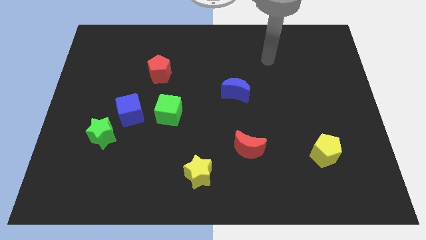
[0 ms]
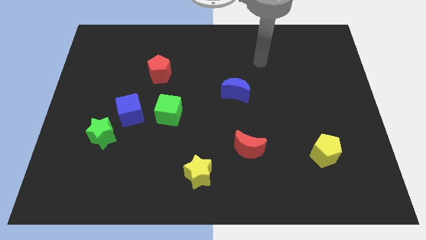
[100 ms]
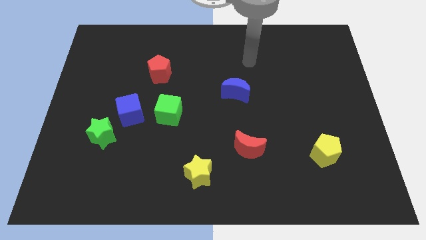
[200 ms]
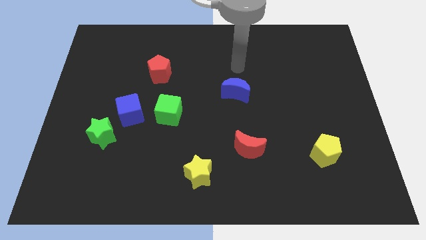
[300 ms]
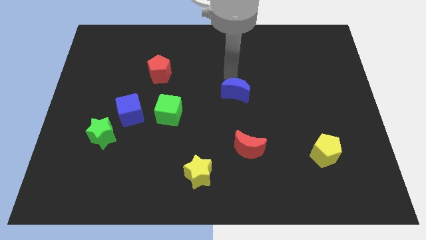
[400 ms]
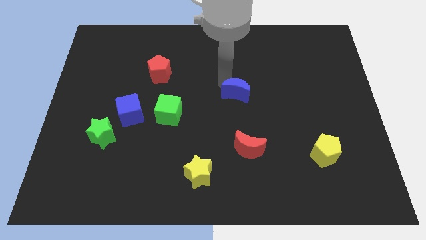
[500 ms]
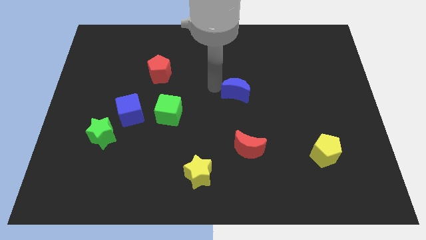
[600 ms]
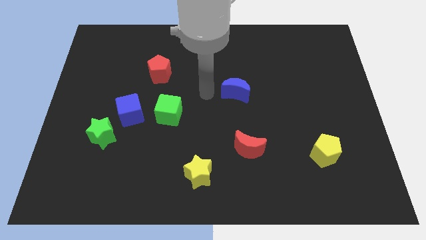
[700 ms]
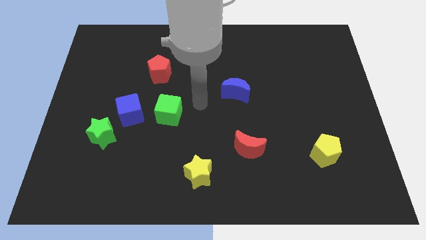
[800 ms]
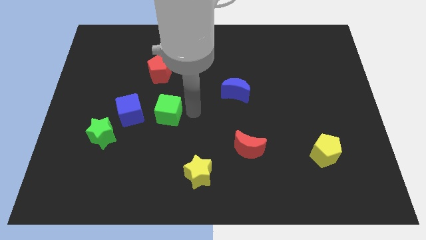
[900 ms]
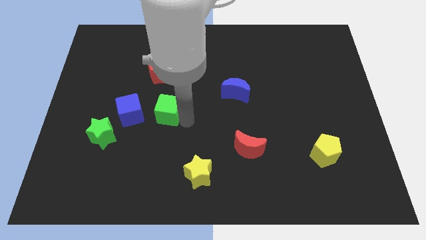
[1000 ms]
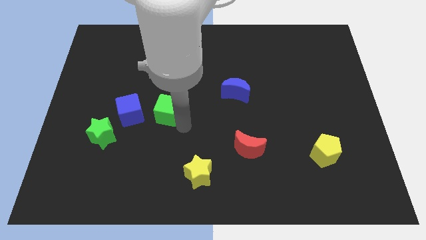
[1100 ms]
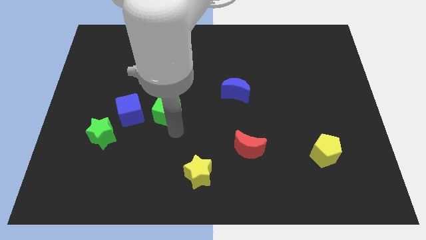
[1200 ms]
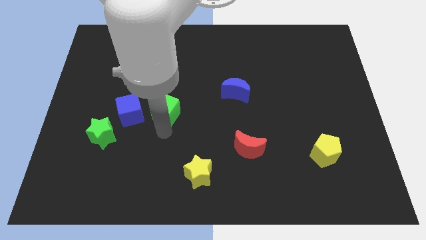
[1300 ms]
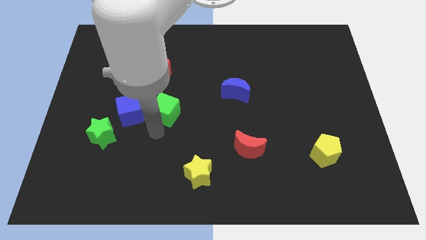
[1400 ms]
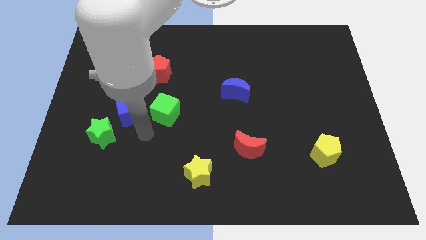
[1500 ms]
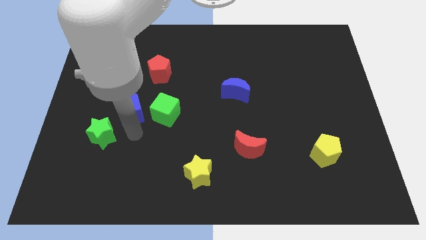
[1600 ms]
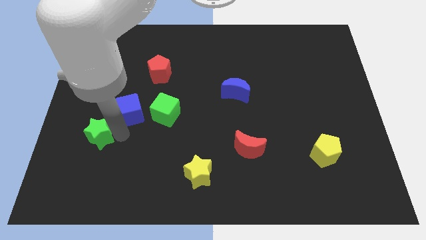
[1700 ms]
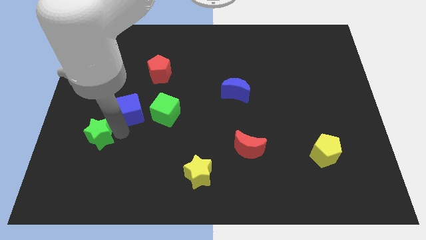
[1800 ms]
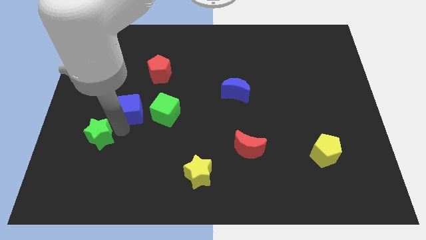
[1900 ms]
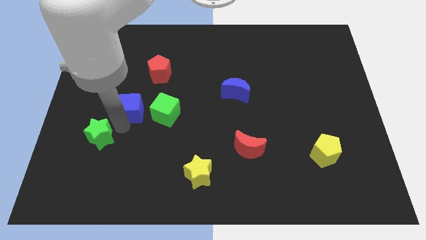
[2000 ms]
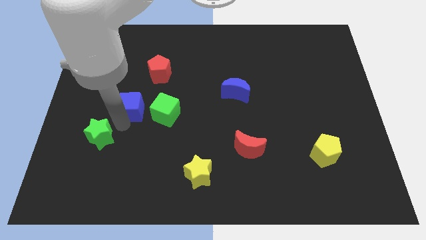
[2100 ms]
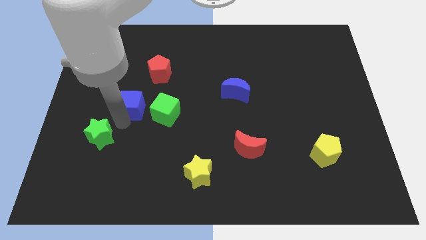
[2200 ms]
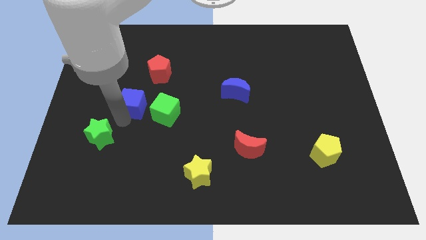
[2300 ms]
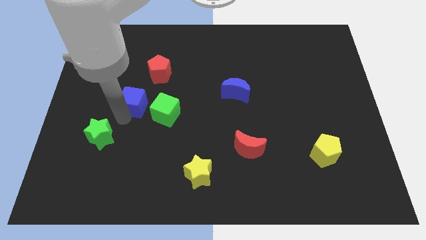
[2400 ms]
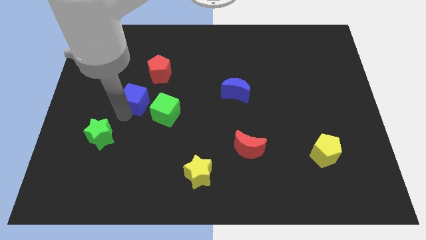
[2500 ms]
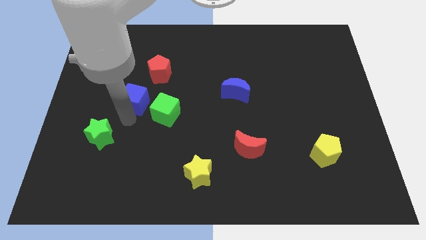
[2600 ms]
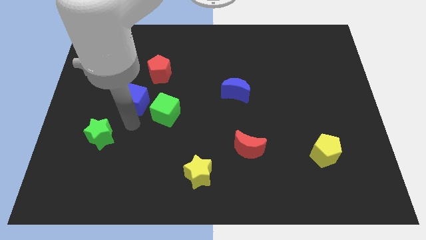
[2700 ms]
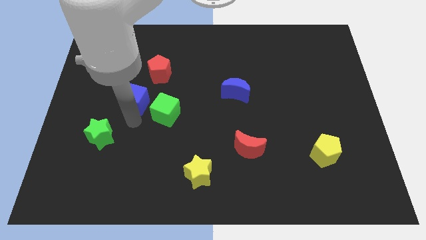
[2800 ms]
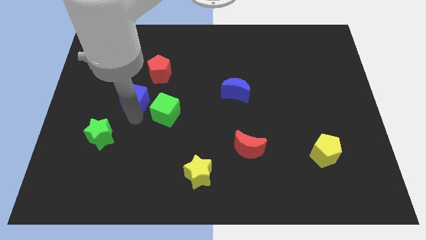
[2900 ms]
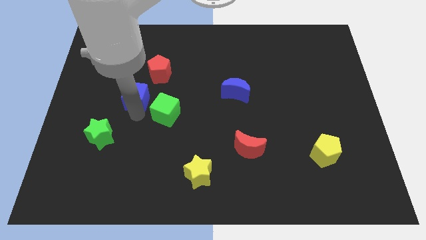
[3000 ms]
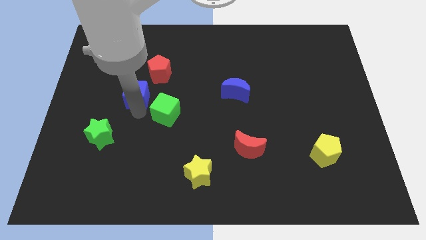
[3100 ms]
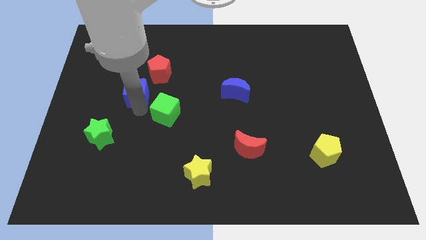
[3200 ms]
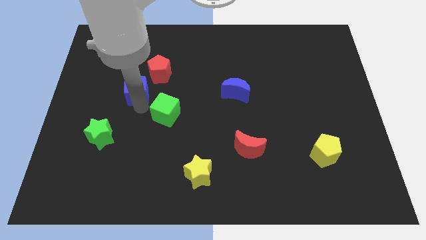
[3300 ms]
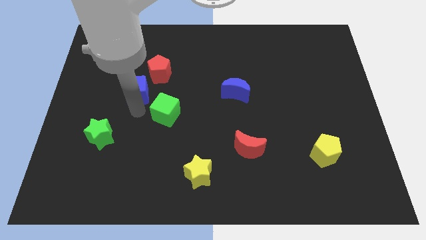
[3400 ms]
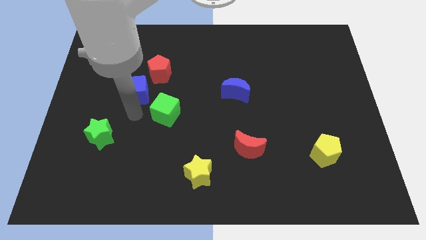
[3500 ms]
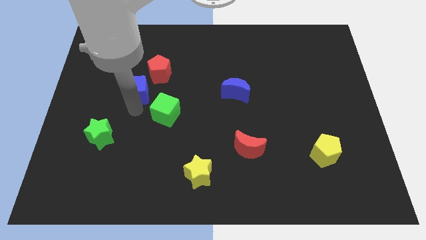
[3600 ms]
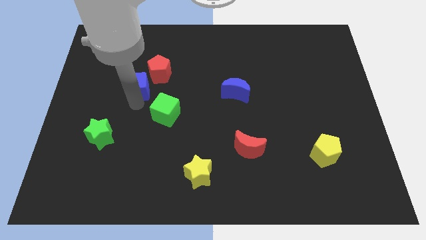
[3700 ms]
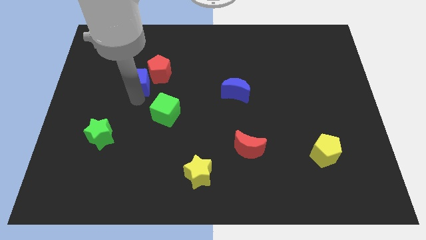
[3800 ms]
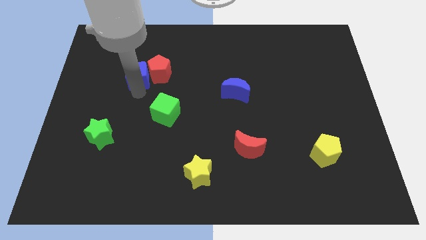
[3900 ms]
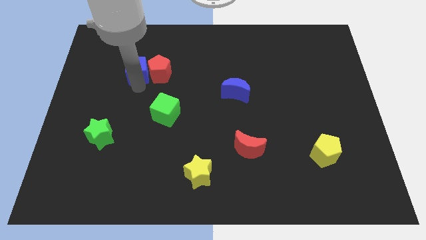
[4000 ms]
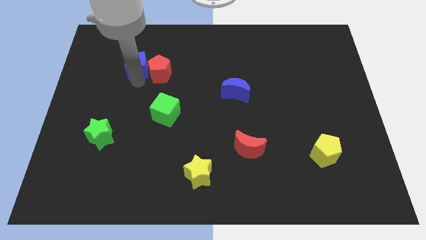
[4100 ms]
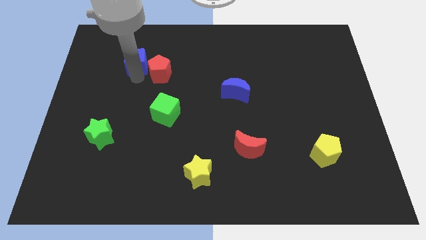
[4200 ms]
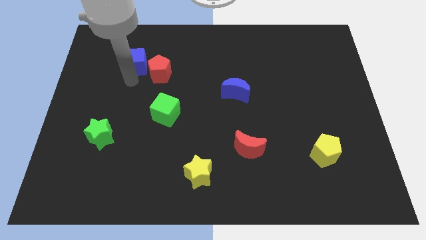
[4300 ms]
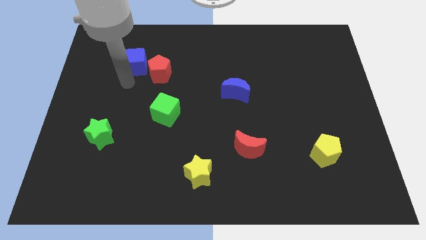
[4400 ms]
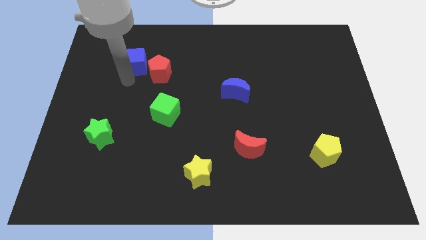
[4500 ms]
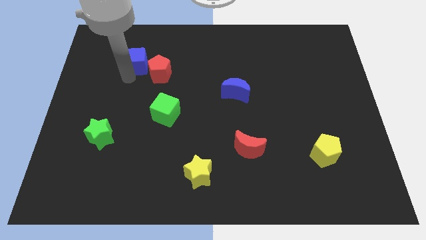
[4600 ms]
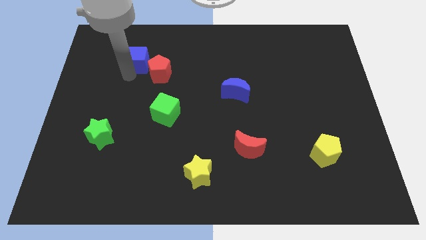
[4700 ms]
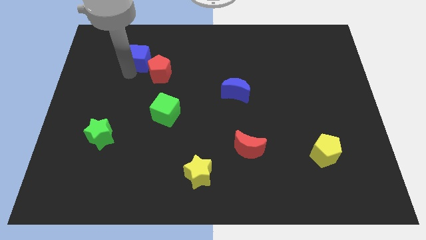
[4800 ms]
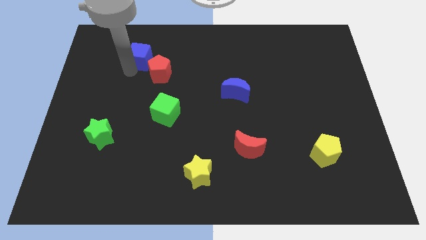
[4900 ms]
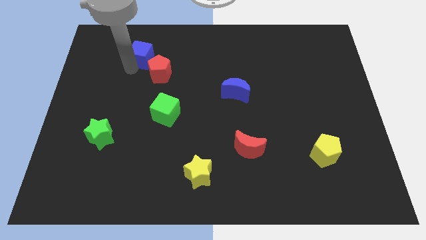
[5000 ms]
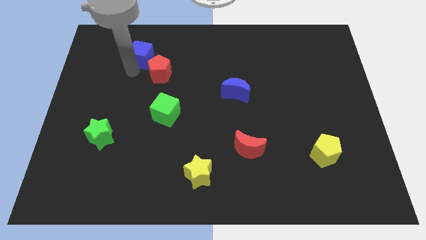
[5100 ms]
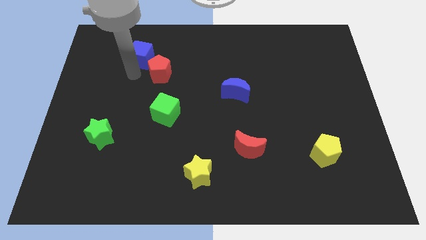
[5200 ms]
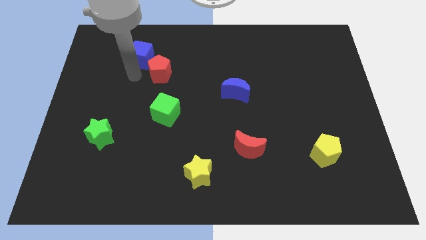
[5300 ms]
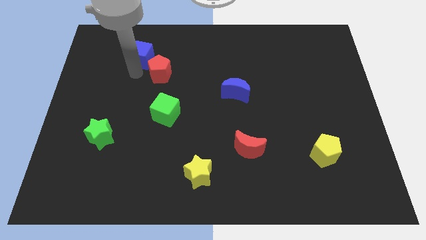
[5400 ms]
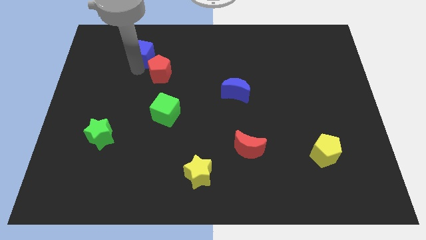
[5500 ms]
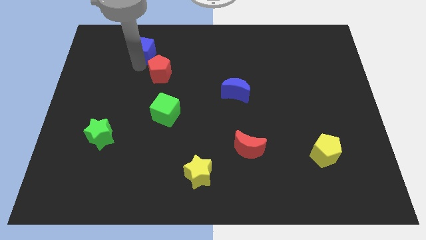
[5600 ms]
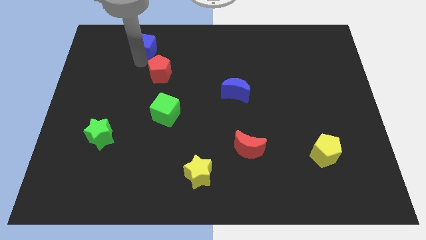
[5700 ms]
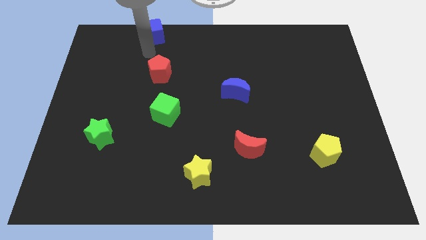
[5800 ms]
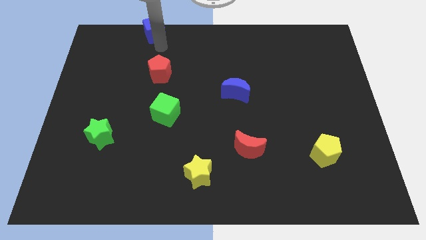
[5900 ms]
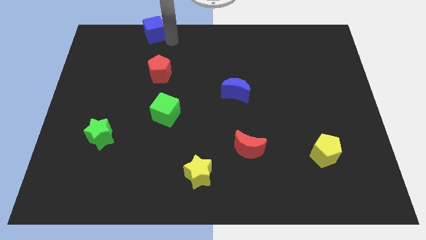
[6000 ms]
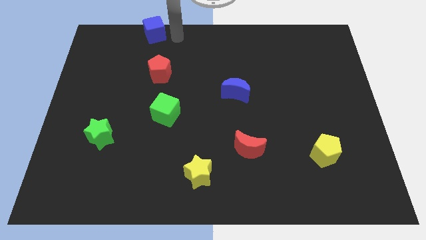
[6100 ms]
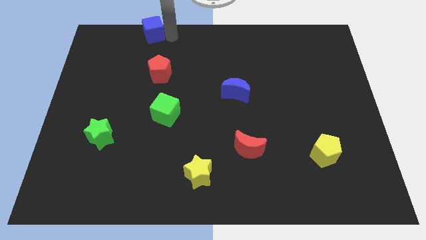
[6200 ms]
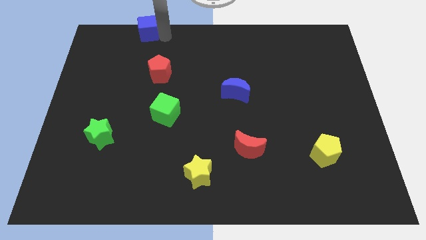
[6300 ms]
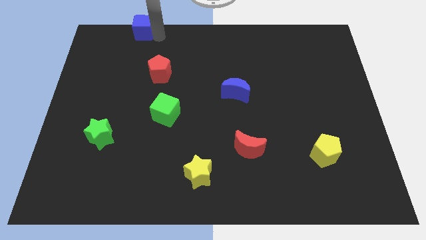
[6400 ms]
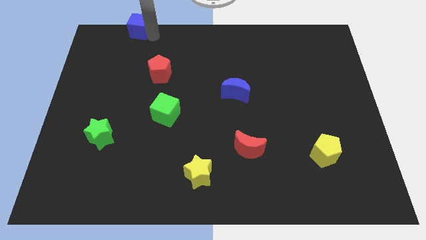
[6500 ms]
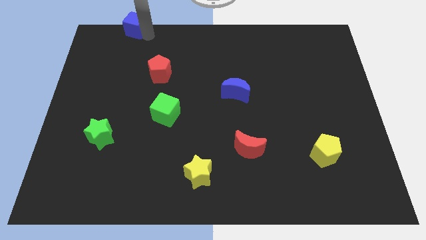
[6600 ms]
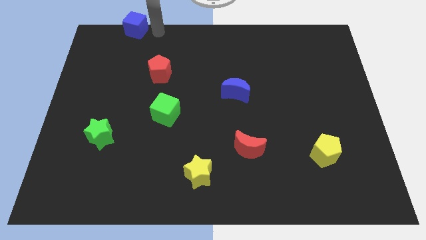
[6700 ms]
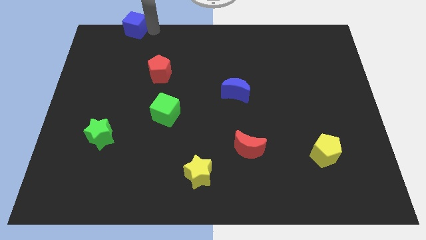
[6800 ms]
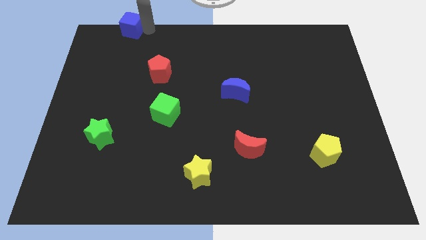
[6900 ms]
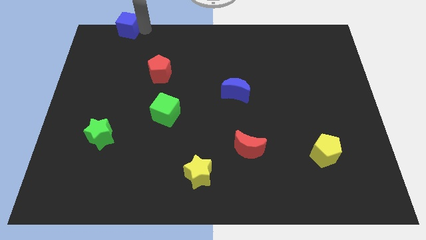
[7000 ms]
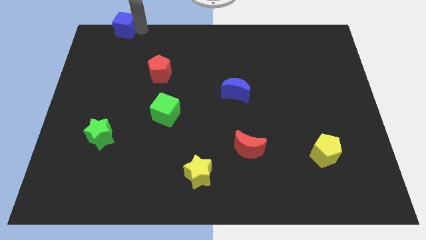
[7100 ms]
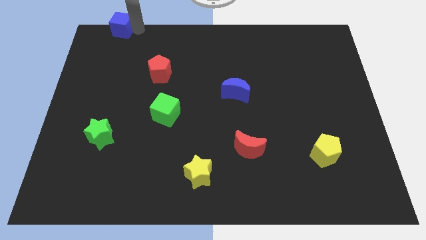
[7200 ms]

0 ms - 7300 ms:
put the blue cube to the top left of the board
